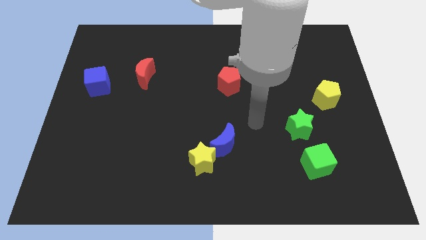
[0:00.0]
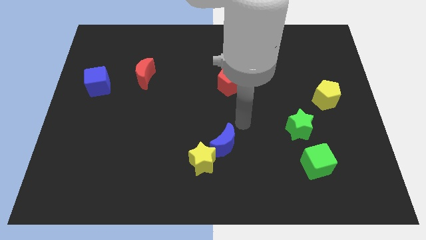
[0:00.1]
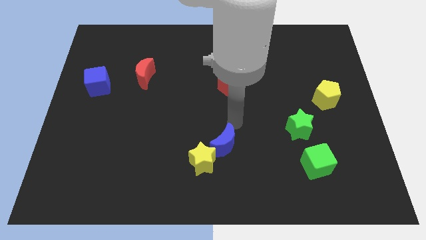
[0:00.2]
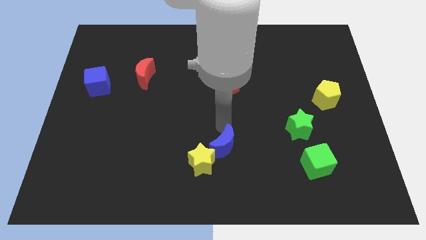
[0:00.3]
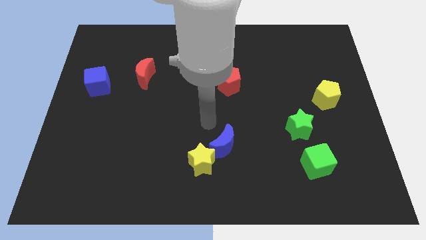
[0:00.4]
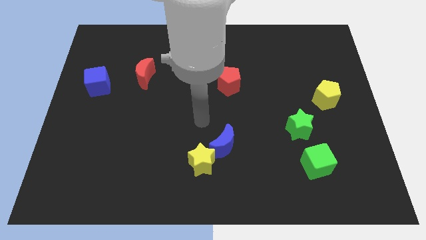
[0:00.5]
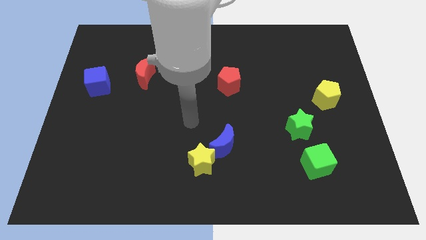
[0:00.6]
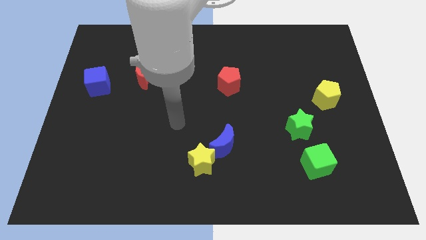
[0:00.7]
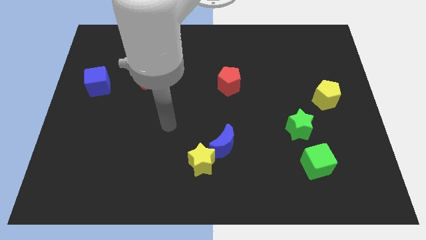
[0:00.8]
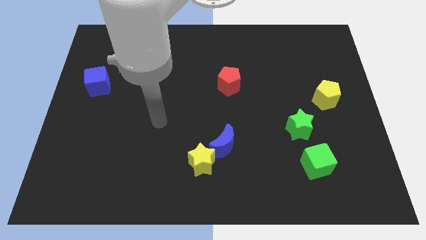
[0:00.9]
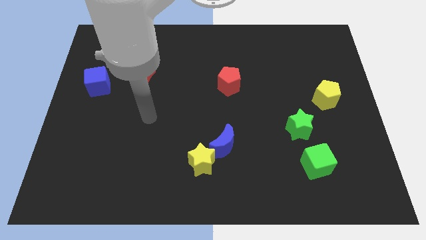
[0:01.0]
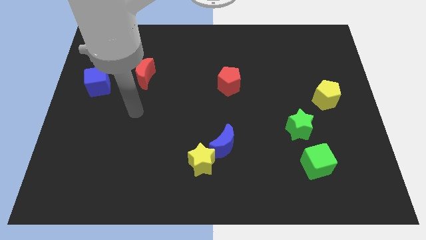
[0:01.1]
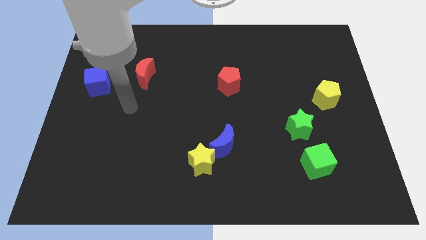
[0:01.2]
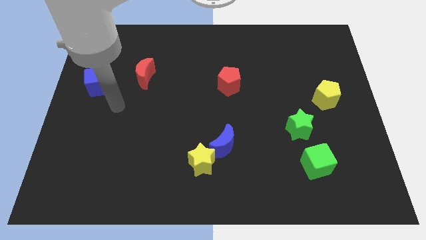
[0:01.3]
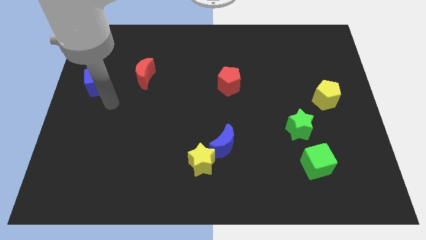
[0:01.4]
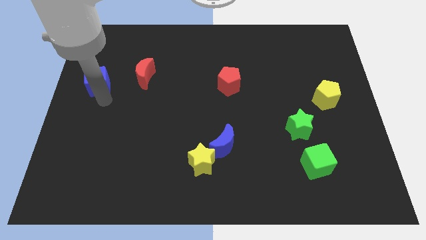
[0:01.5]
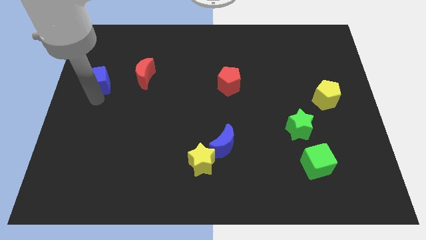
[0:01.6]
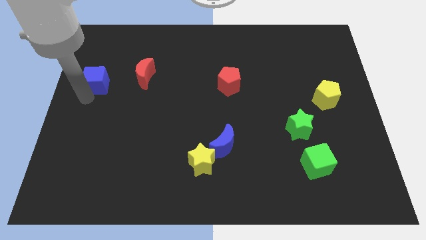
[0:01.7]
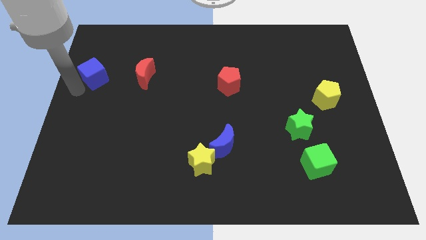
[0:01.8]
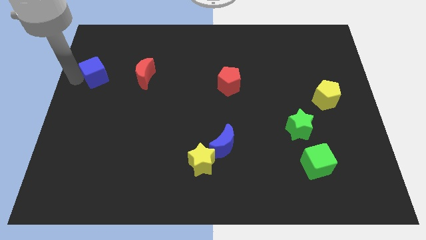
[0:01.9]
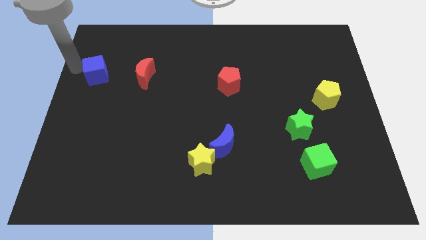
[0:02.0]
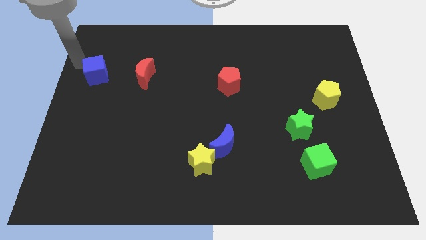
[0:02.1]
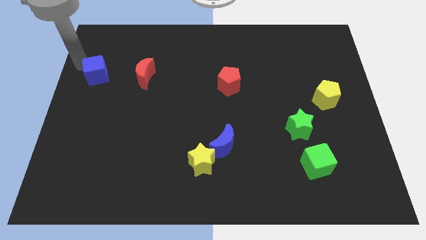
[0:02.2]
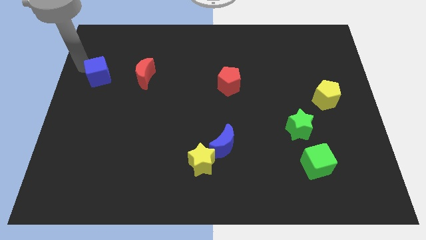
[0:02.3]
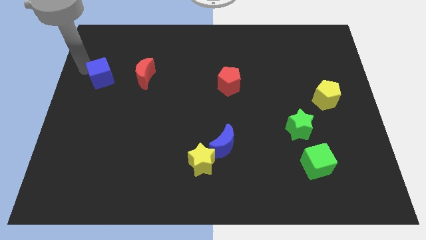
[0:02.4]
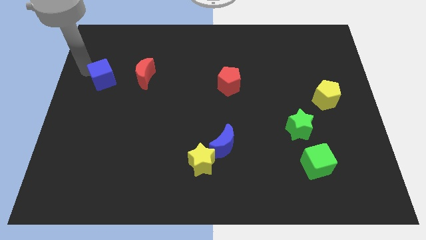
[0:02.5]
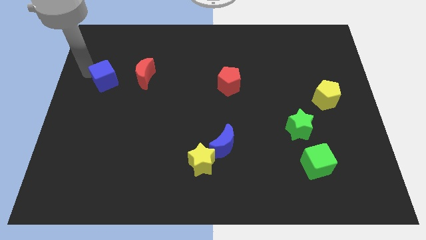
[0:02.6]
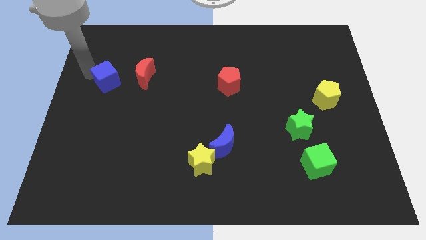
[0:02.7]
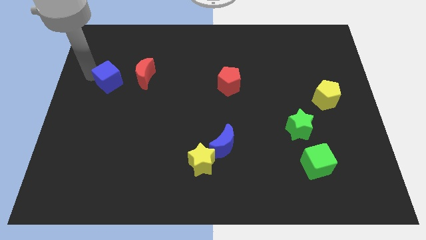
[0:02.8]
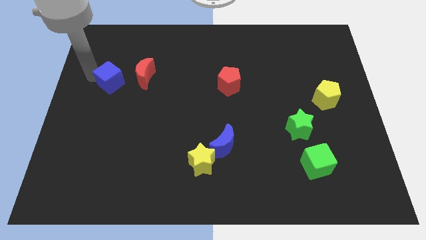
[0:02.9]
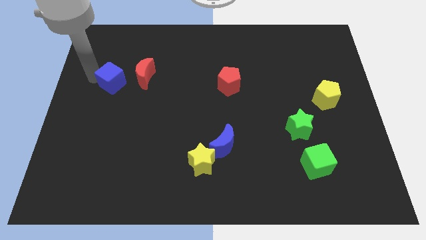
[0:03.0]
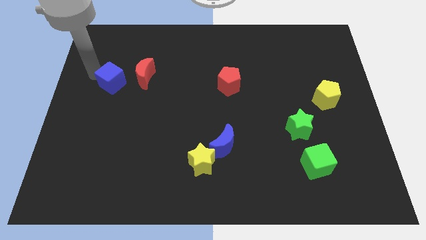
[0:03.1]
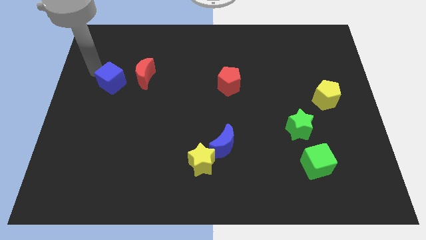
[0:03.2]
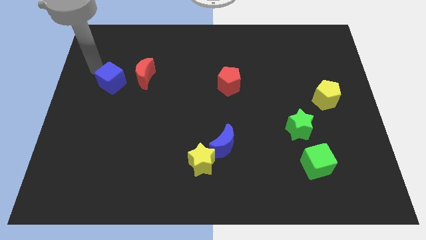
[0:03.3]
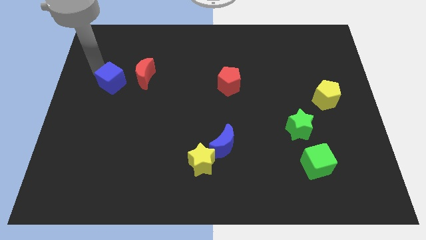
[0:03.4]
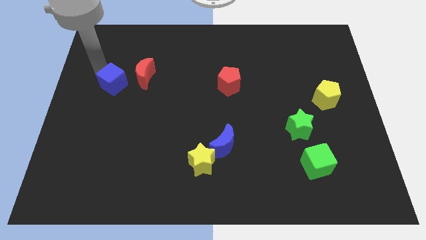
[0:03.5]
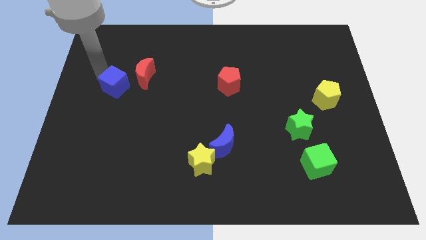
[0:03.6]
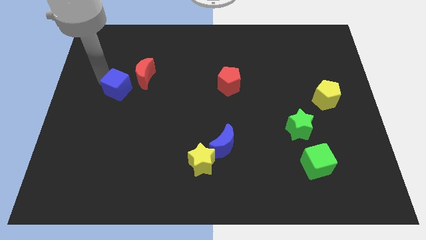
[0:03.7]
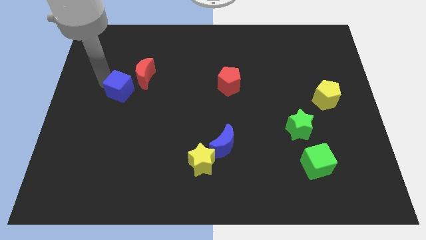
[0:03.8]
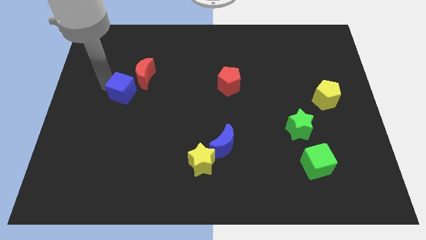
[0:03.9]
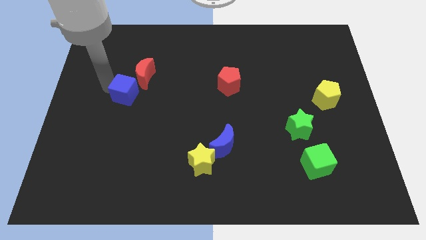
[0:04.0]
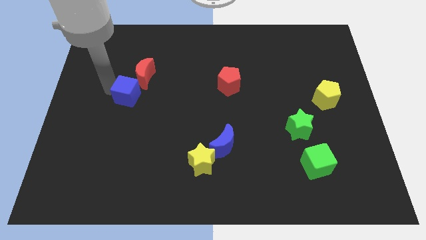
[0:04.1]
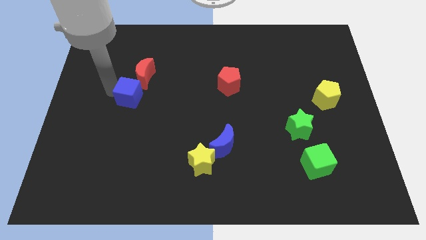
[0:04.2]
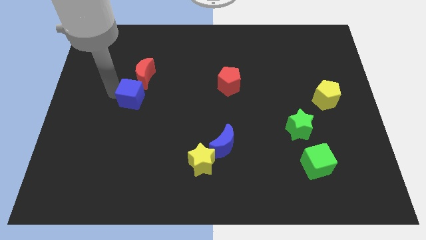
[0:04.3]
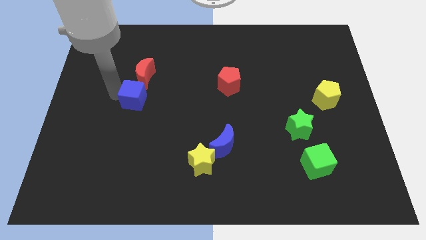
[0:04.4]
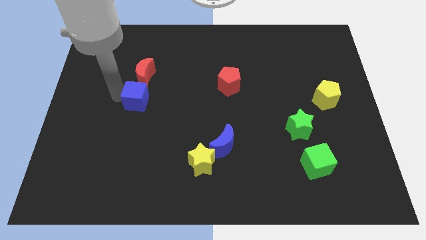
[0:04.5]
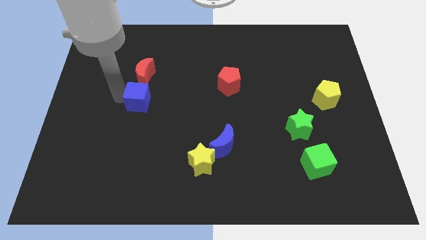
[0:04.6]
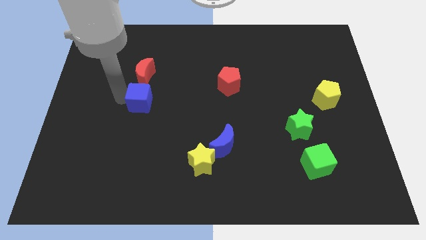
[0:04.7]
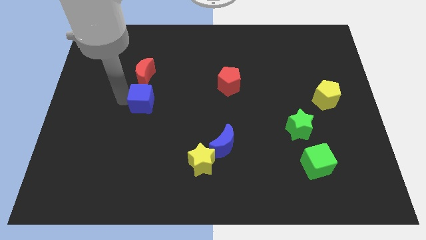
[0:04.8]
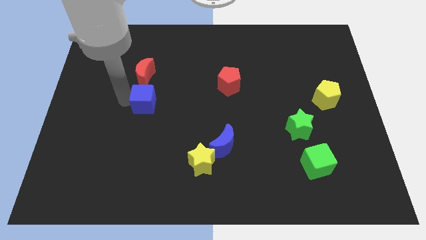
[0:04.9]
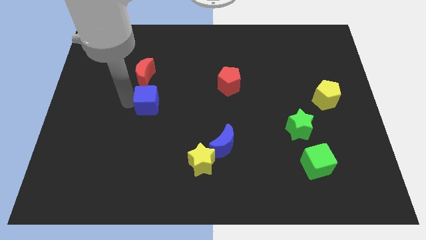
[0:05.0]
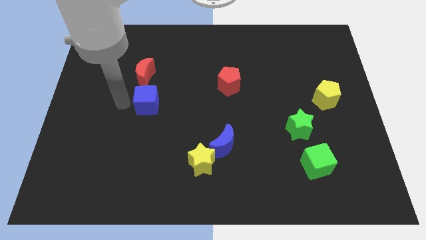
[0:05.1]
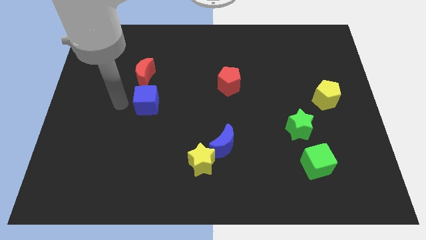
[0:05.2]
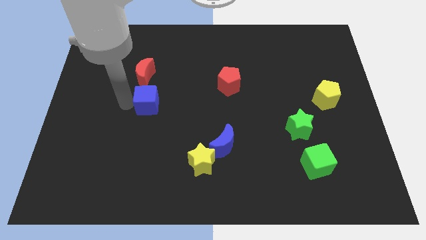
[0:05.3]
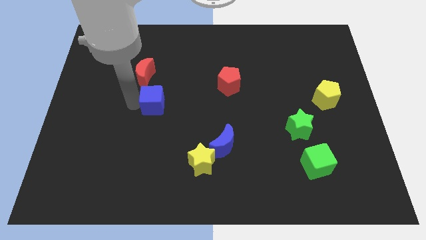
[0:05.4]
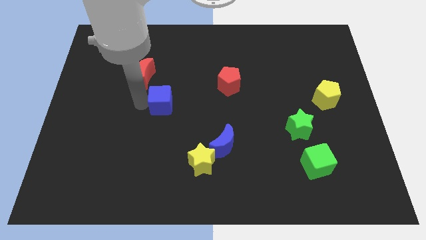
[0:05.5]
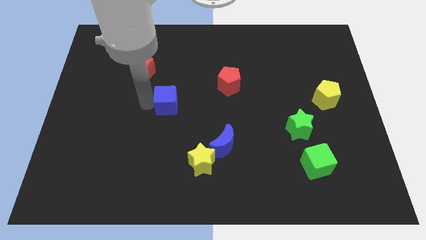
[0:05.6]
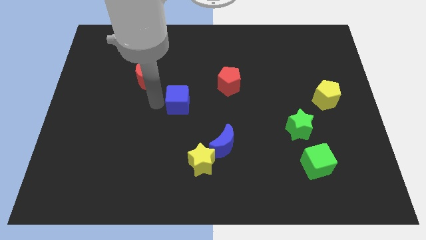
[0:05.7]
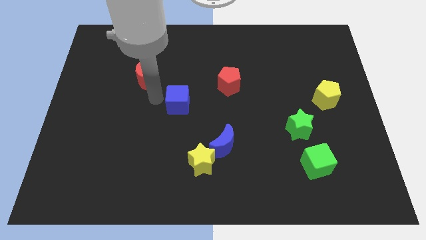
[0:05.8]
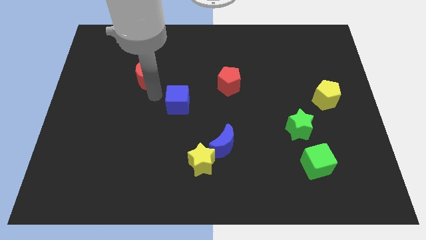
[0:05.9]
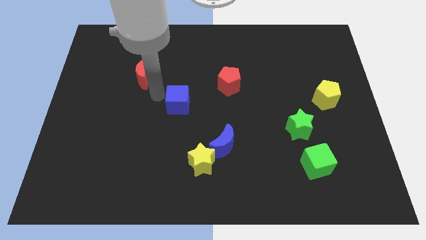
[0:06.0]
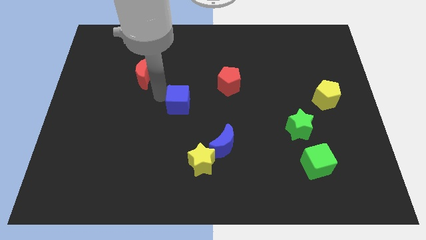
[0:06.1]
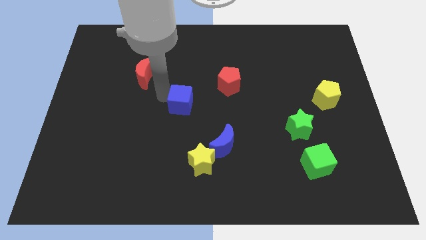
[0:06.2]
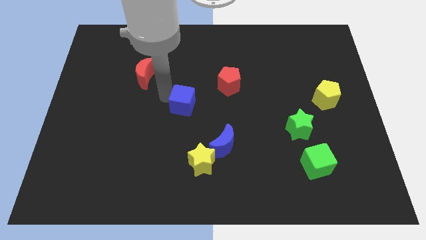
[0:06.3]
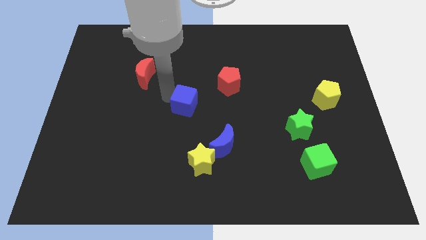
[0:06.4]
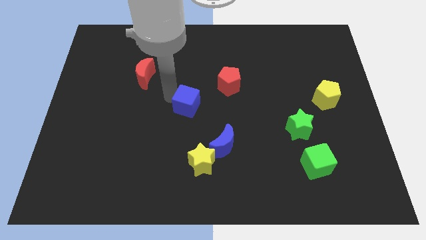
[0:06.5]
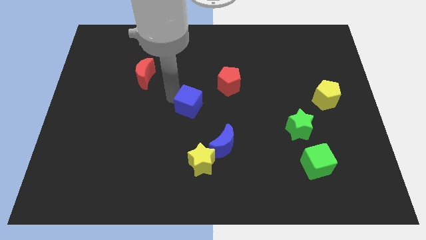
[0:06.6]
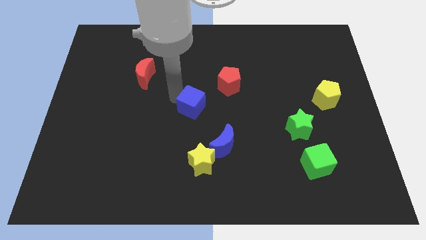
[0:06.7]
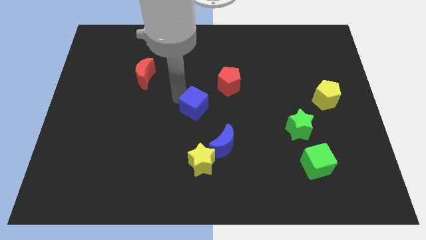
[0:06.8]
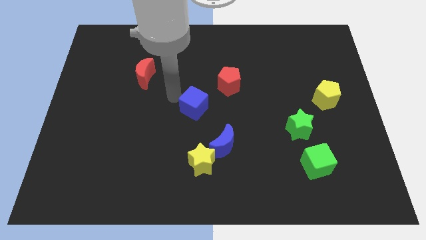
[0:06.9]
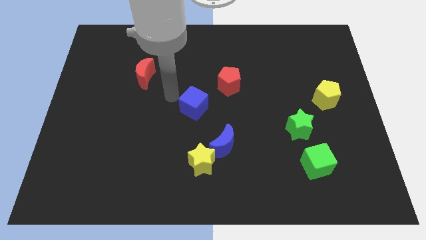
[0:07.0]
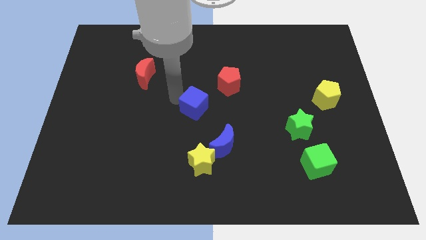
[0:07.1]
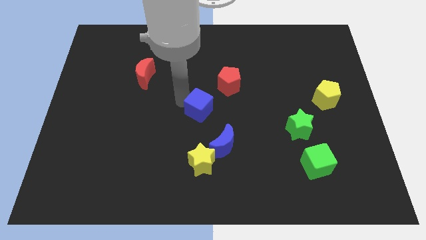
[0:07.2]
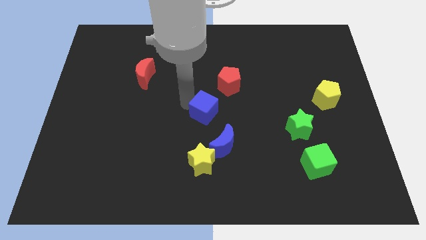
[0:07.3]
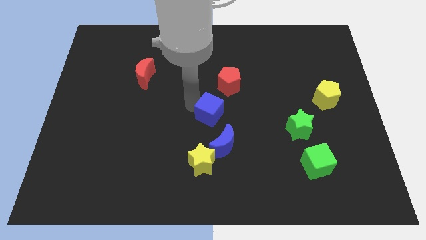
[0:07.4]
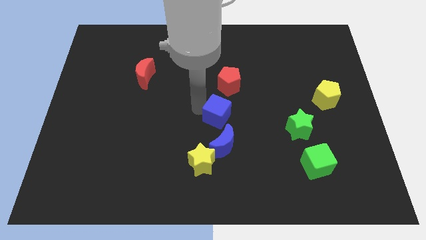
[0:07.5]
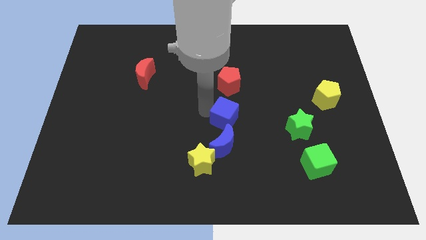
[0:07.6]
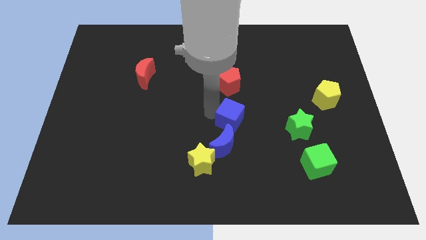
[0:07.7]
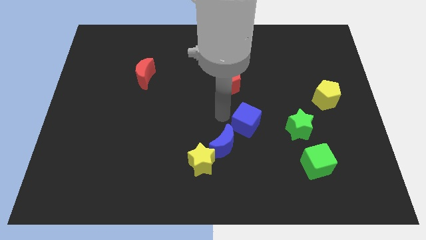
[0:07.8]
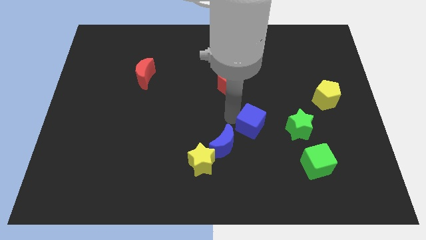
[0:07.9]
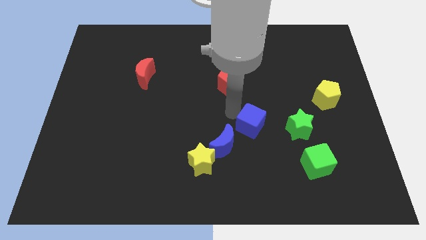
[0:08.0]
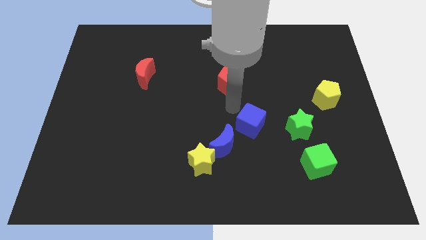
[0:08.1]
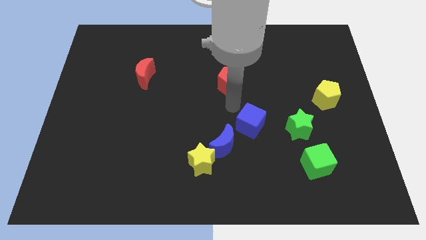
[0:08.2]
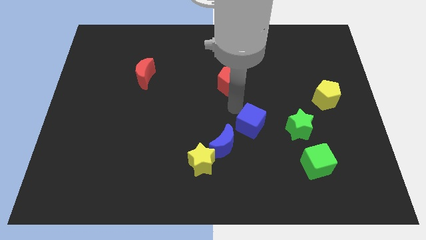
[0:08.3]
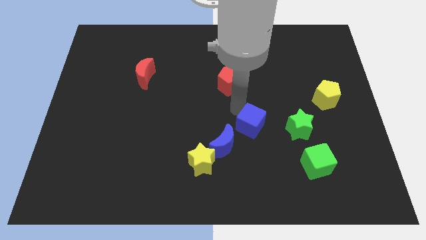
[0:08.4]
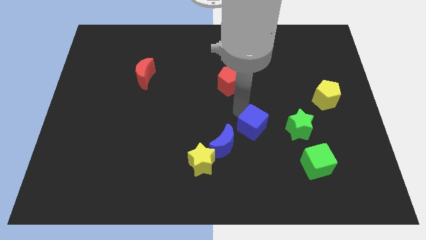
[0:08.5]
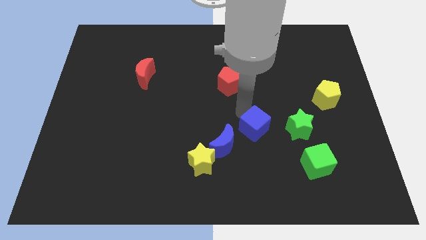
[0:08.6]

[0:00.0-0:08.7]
move the blue cube just right of the blue moon
